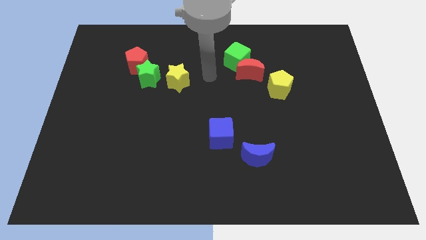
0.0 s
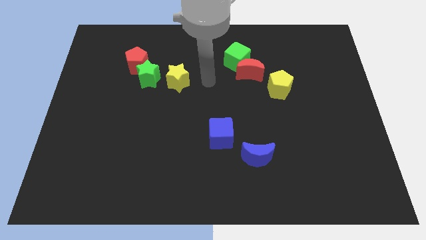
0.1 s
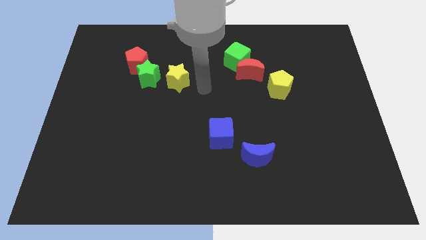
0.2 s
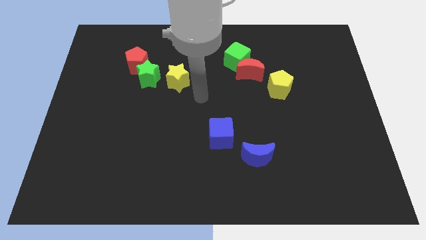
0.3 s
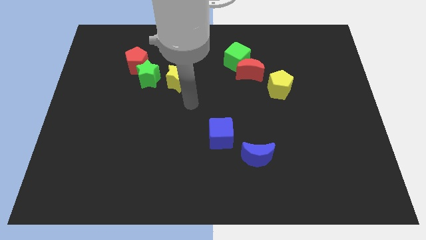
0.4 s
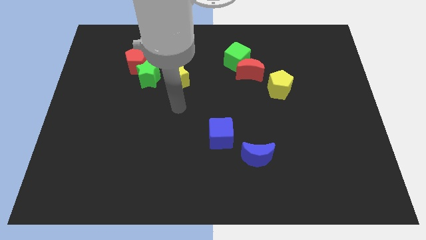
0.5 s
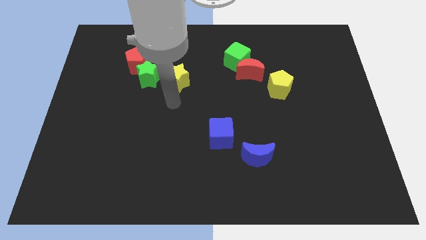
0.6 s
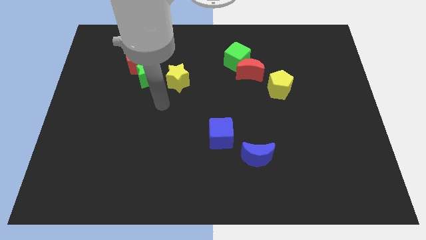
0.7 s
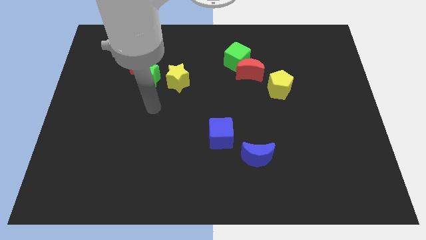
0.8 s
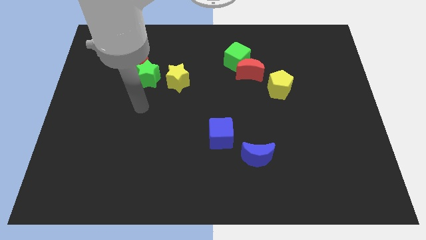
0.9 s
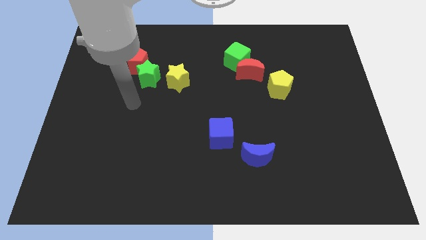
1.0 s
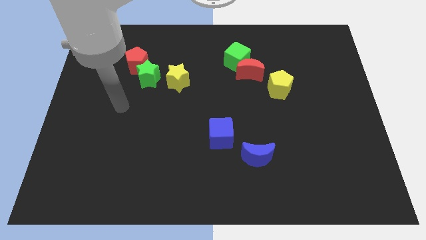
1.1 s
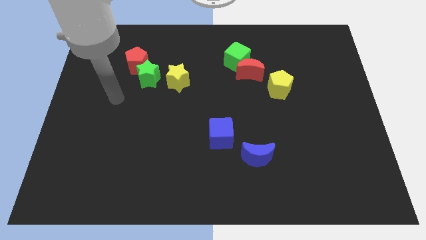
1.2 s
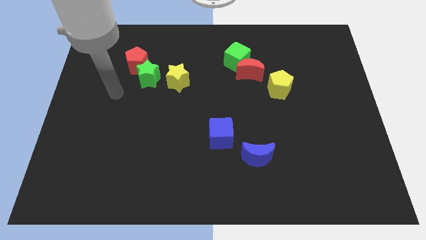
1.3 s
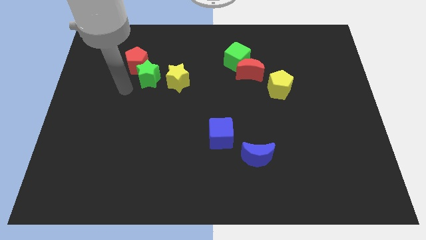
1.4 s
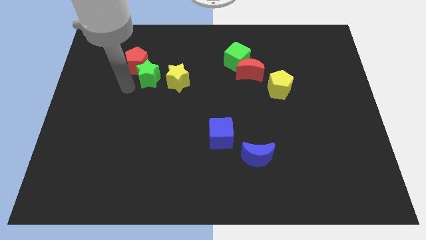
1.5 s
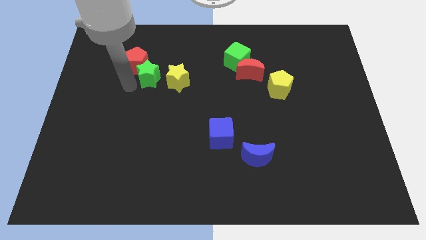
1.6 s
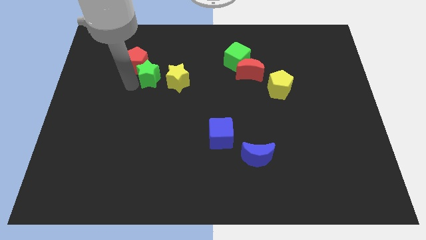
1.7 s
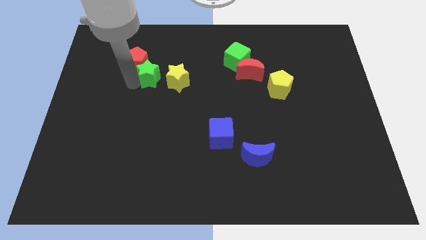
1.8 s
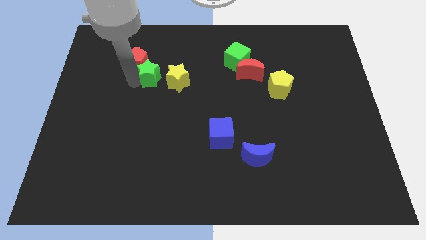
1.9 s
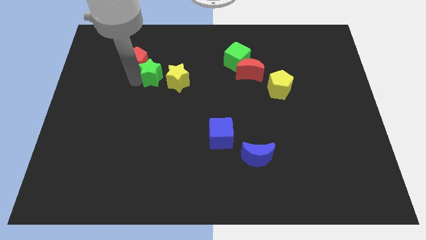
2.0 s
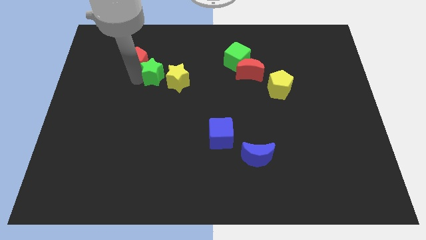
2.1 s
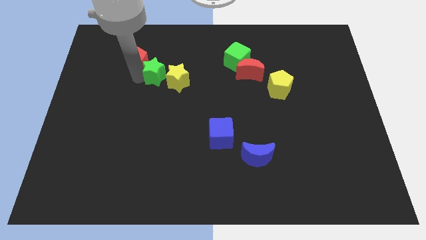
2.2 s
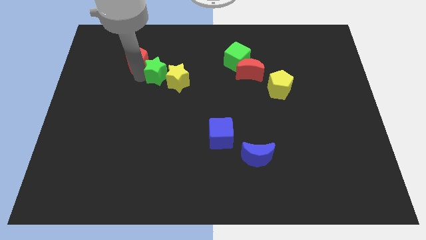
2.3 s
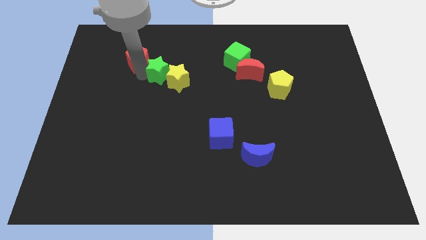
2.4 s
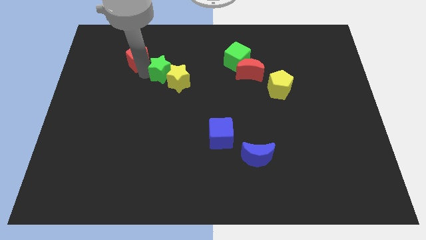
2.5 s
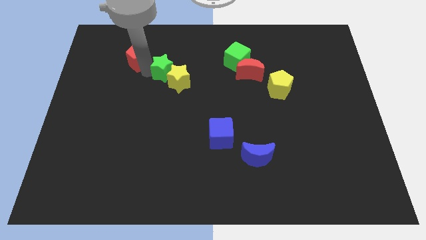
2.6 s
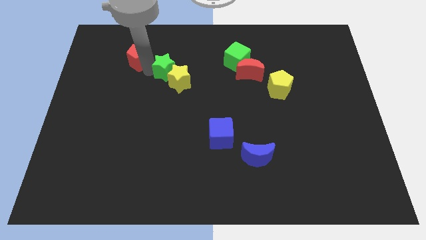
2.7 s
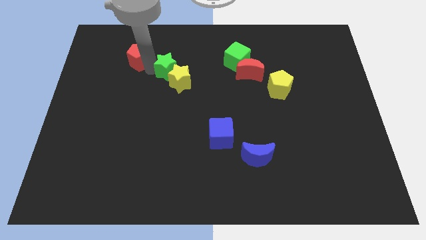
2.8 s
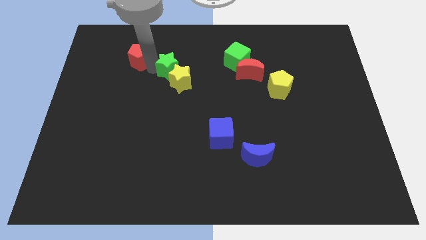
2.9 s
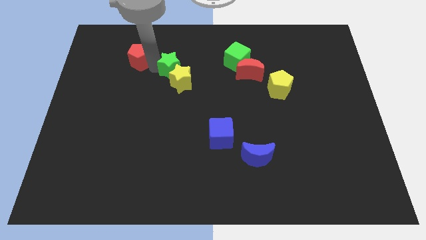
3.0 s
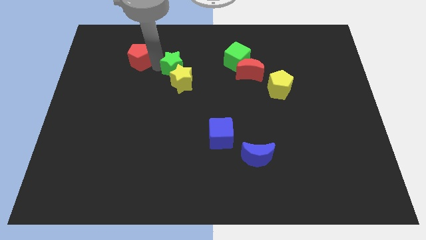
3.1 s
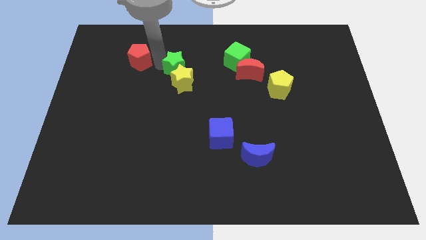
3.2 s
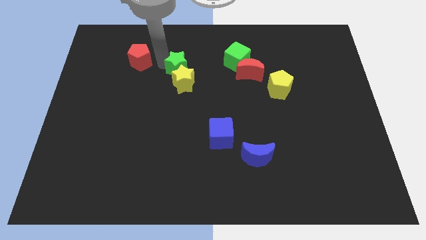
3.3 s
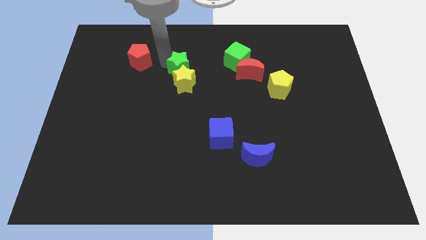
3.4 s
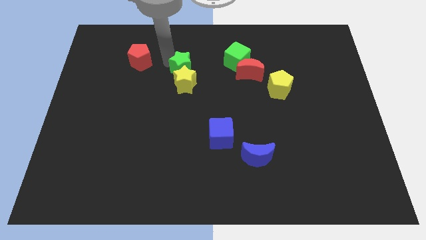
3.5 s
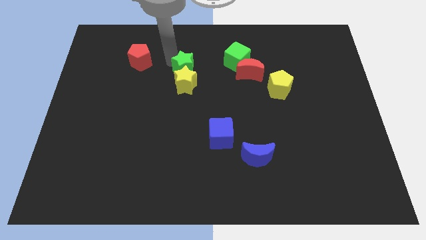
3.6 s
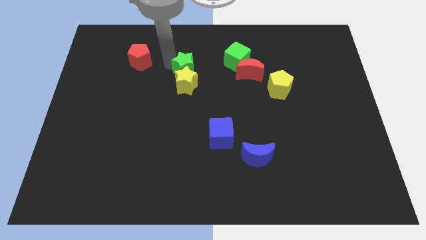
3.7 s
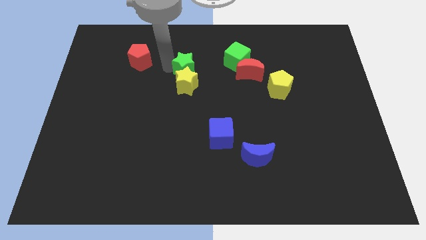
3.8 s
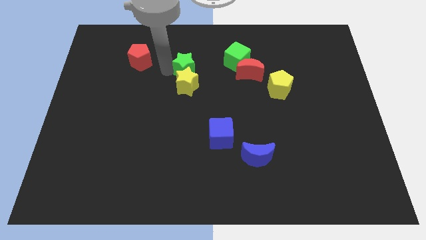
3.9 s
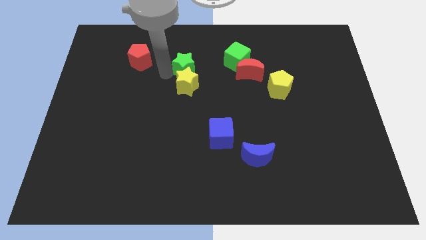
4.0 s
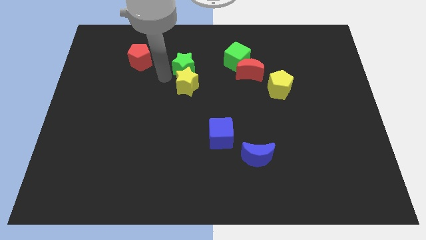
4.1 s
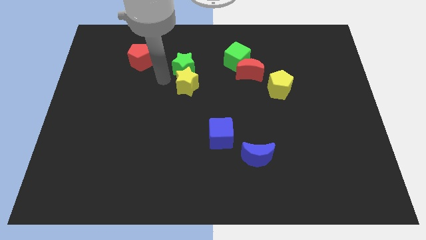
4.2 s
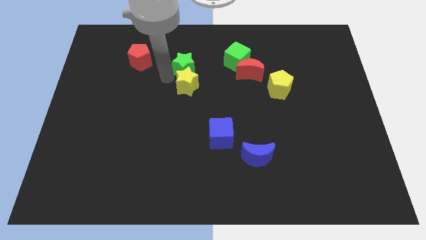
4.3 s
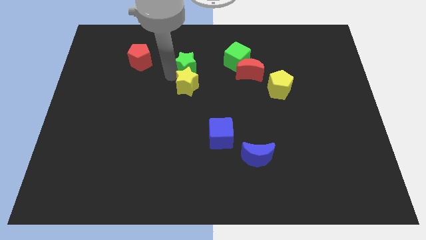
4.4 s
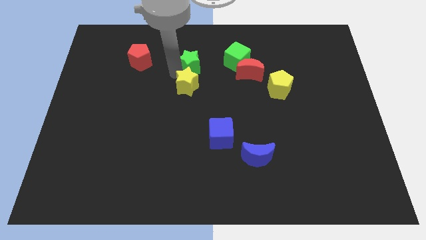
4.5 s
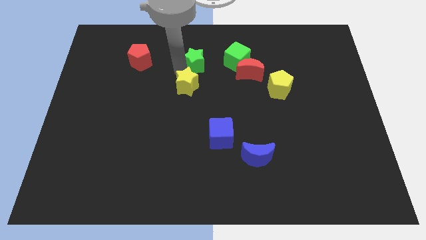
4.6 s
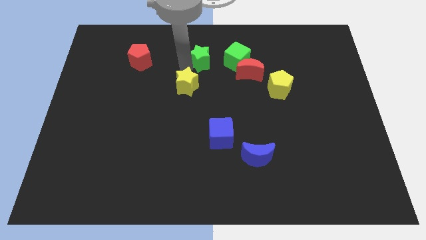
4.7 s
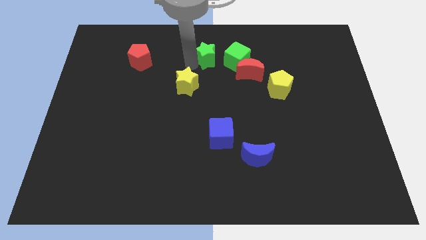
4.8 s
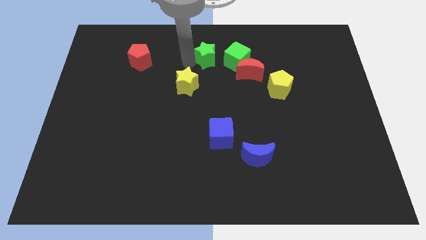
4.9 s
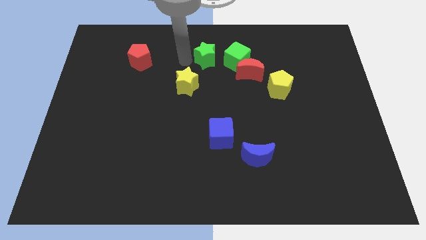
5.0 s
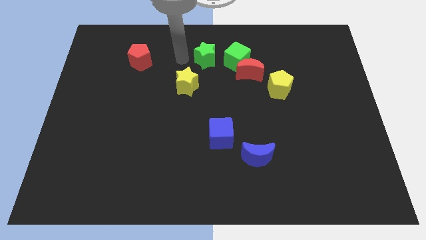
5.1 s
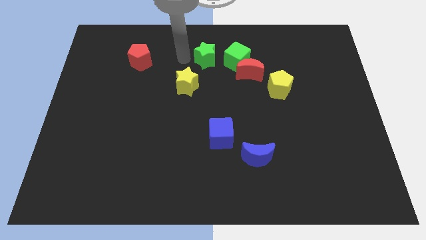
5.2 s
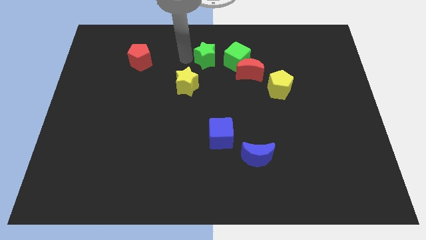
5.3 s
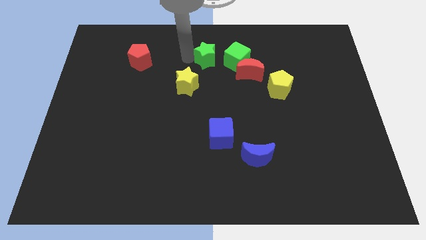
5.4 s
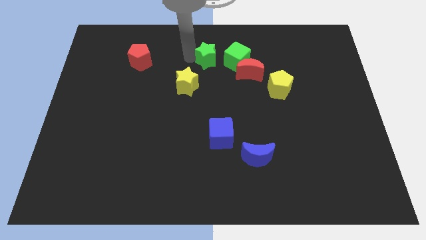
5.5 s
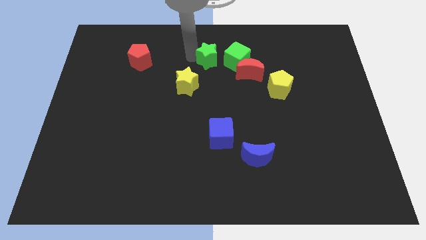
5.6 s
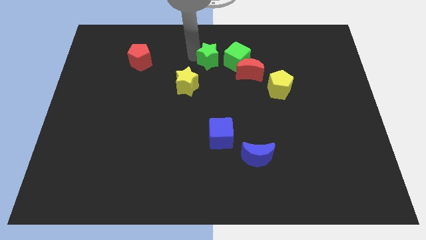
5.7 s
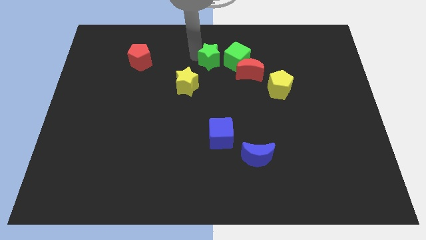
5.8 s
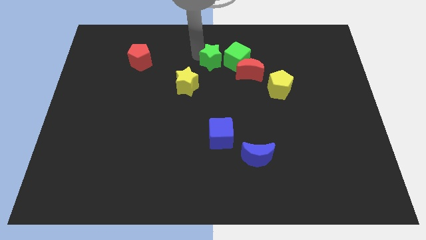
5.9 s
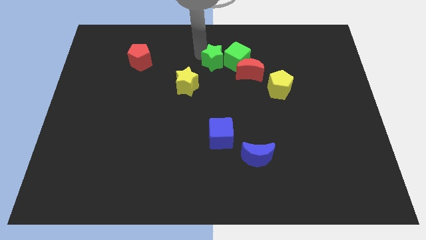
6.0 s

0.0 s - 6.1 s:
move the green star close to the green cube

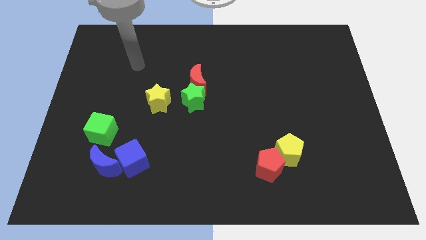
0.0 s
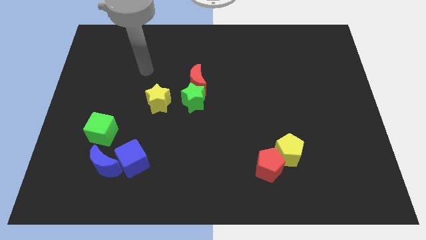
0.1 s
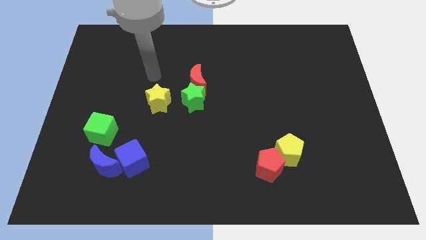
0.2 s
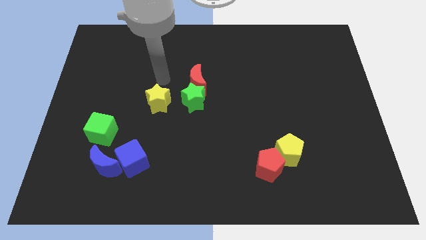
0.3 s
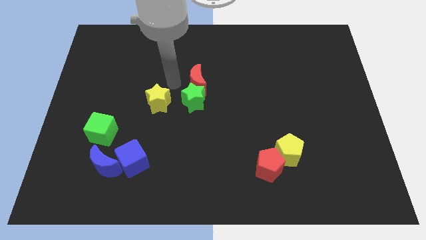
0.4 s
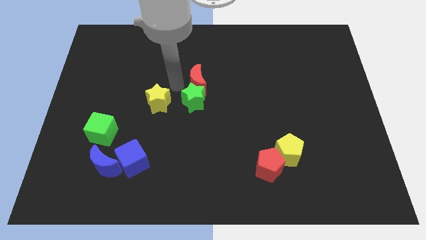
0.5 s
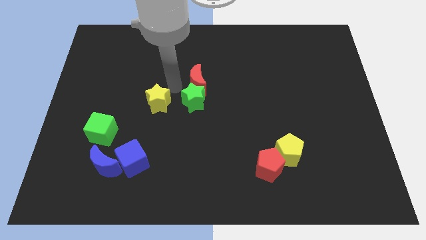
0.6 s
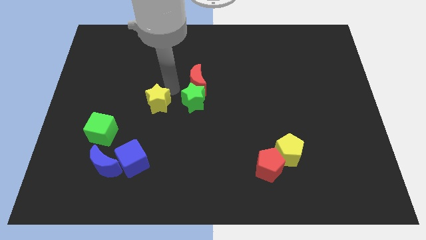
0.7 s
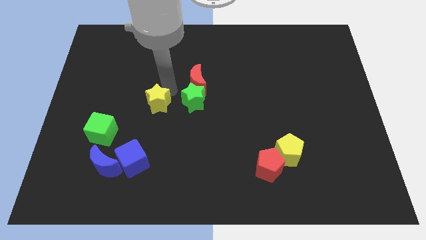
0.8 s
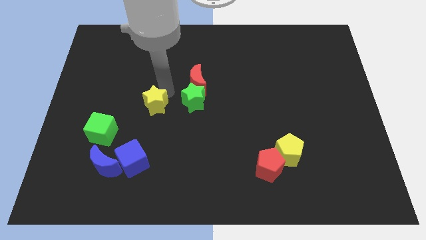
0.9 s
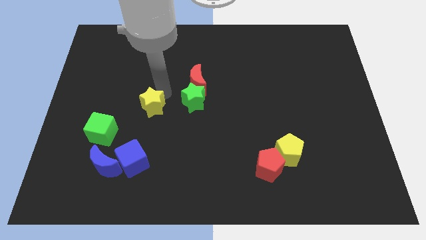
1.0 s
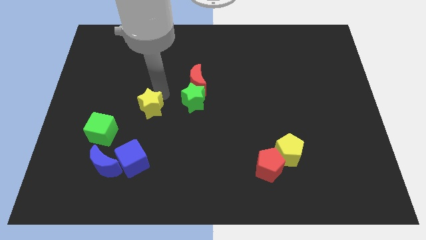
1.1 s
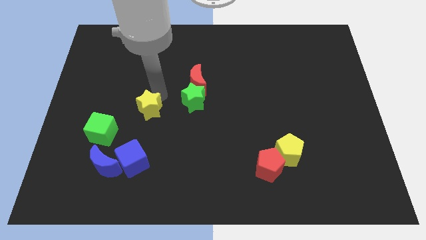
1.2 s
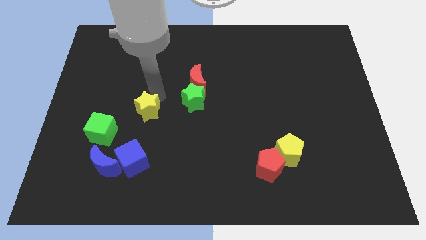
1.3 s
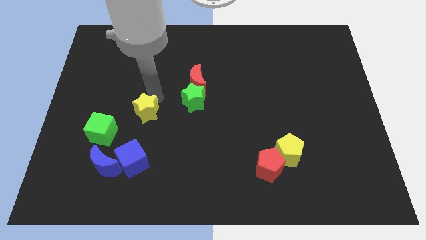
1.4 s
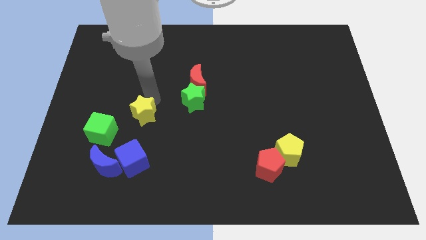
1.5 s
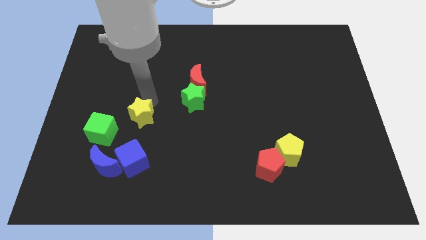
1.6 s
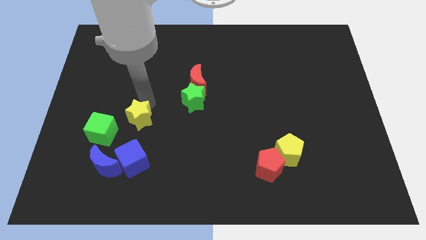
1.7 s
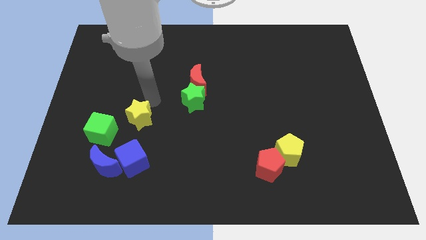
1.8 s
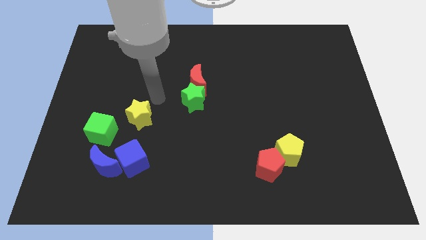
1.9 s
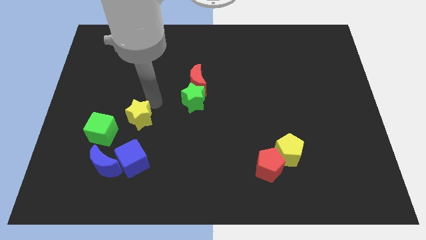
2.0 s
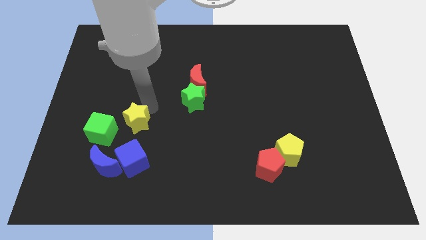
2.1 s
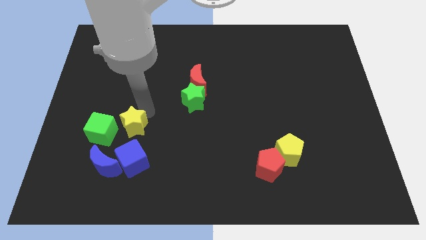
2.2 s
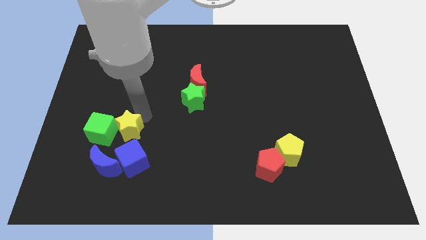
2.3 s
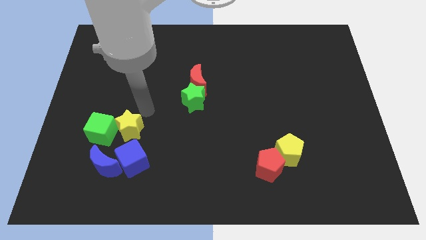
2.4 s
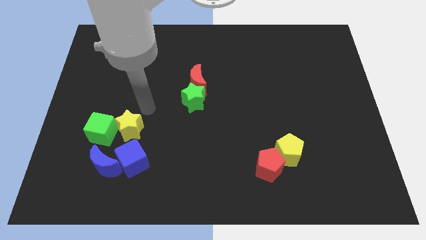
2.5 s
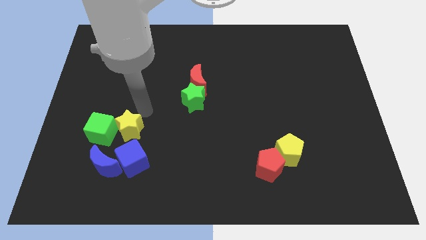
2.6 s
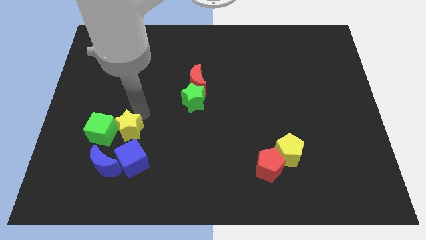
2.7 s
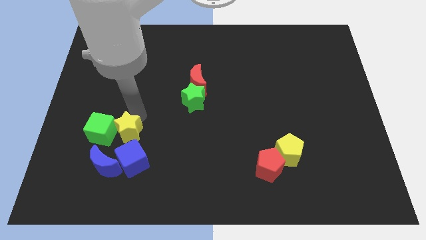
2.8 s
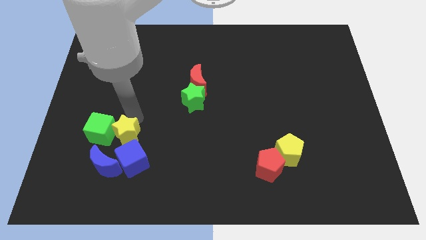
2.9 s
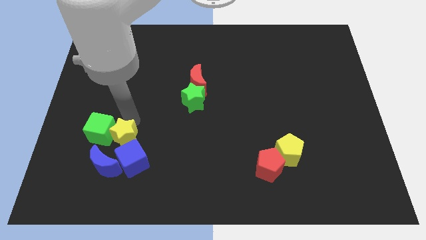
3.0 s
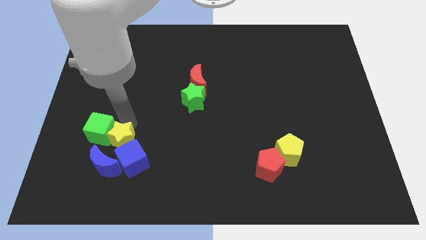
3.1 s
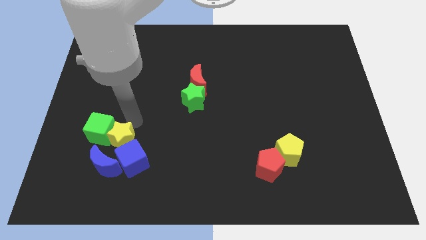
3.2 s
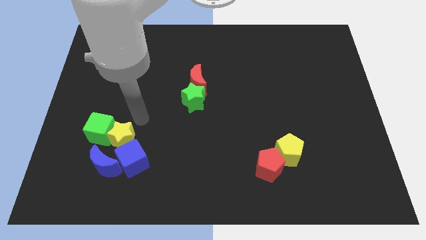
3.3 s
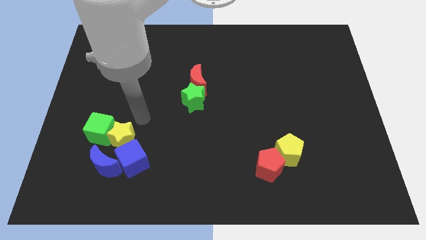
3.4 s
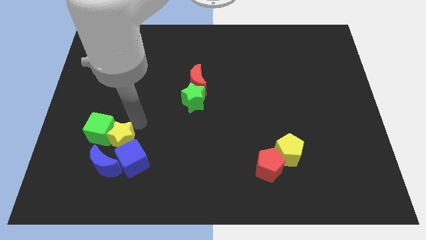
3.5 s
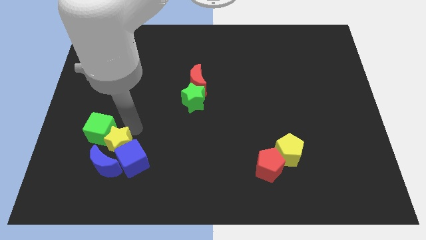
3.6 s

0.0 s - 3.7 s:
put the yellow star next to the blue moon
